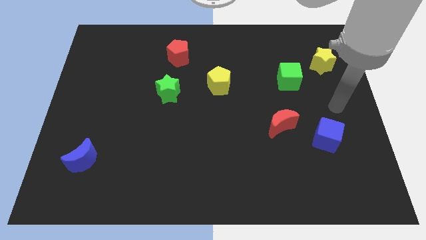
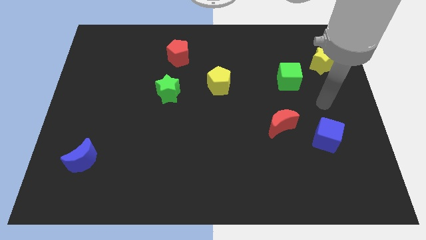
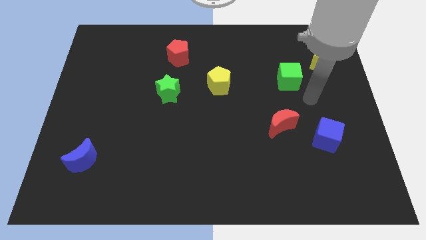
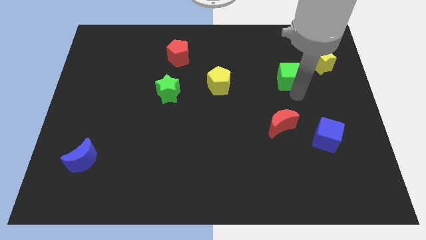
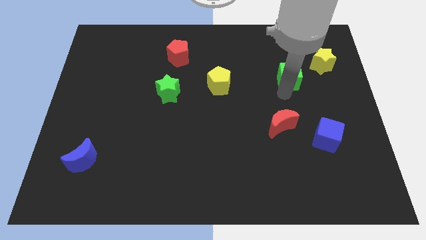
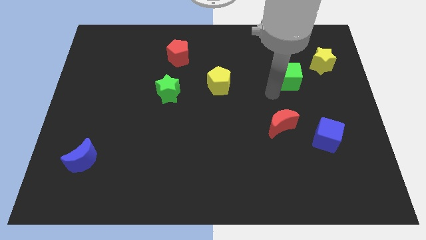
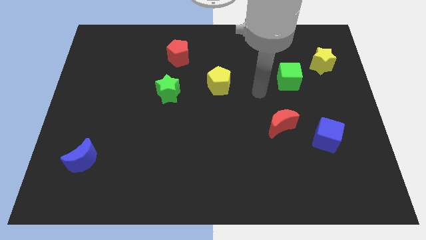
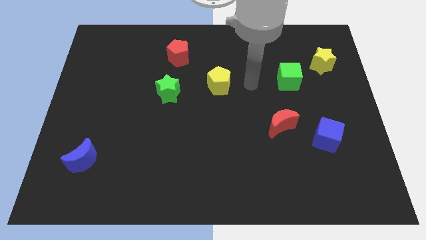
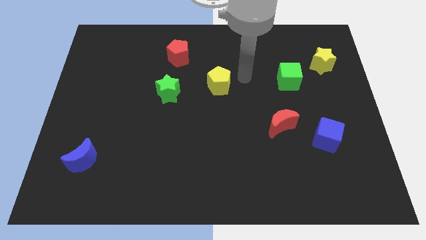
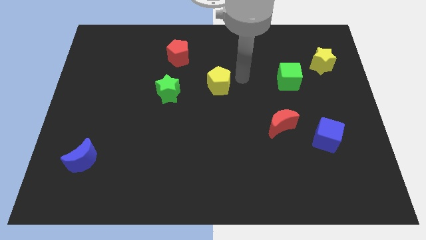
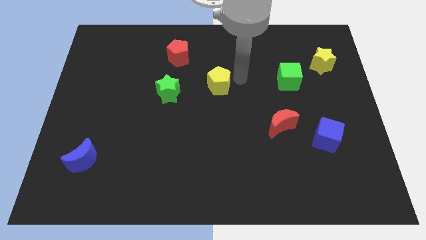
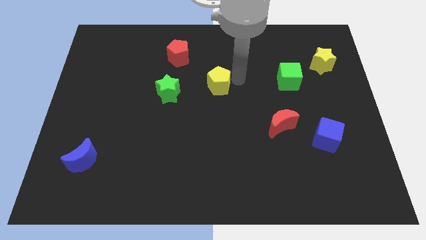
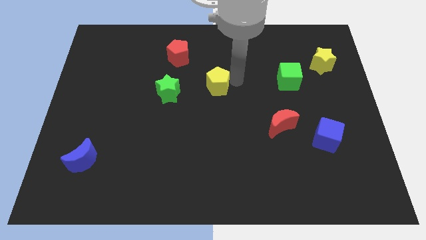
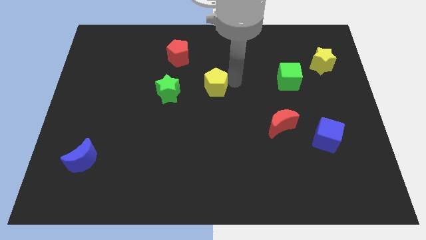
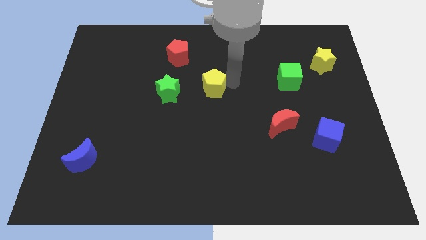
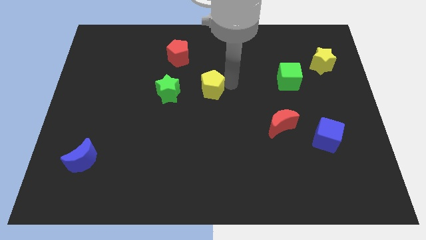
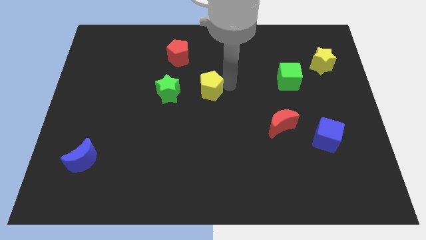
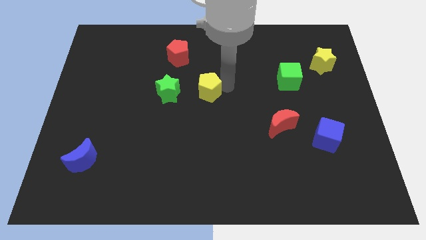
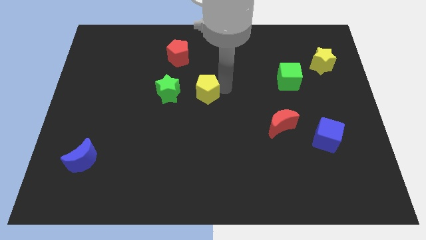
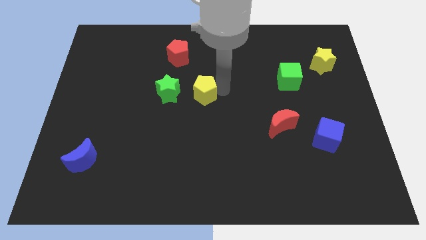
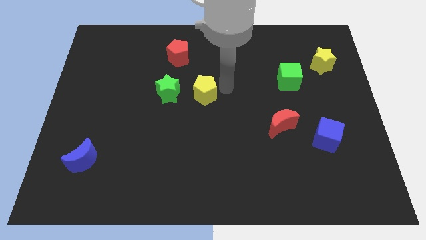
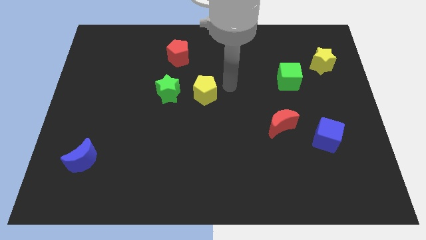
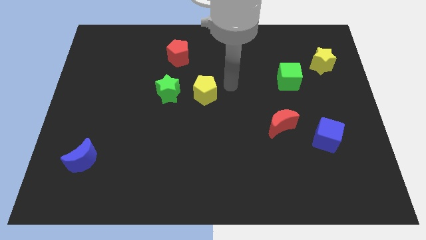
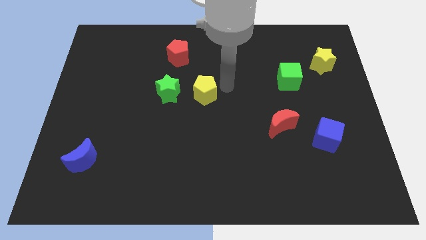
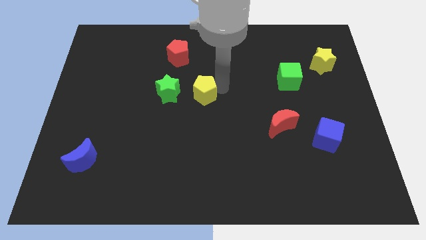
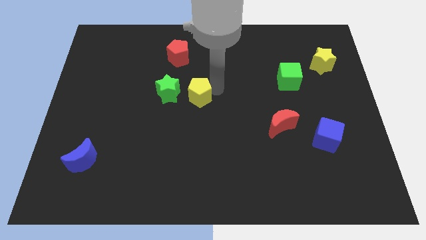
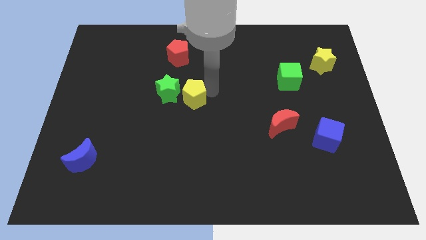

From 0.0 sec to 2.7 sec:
push the yellow pentagon a little downwards and left diagonally

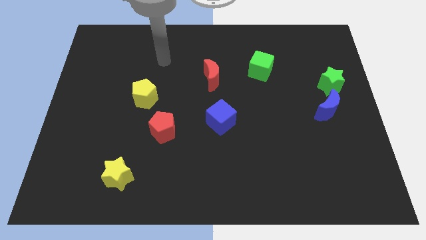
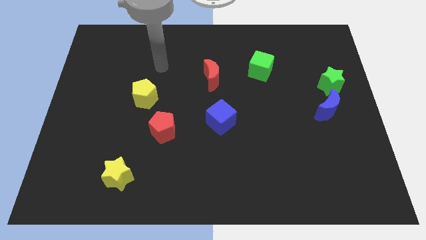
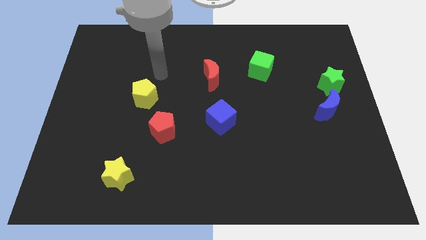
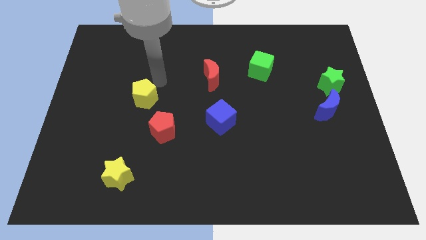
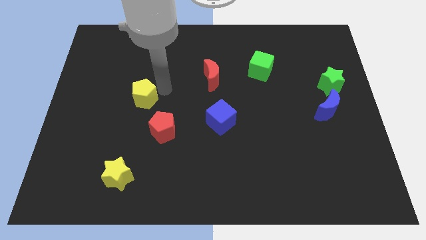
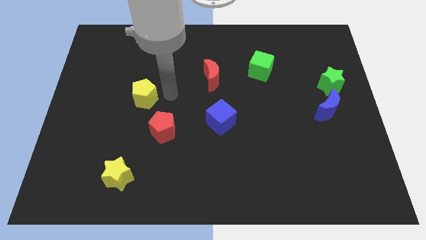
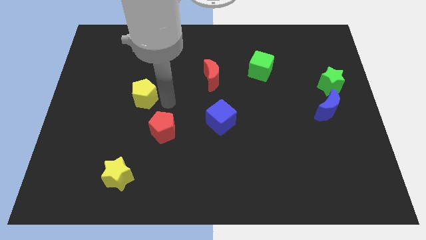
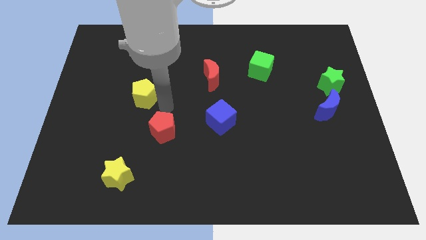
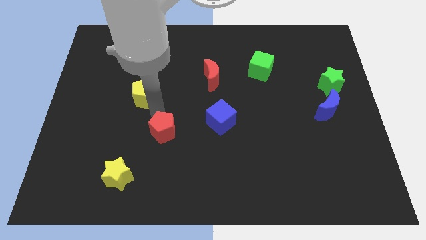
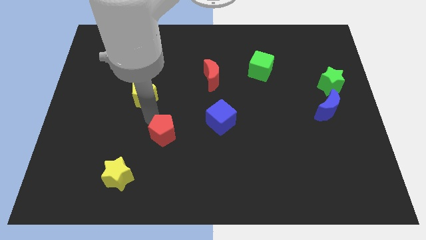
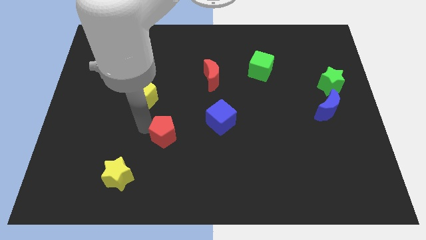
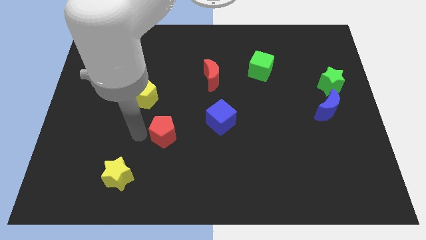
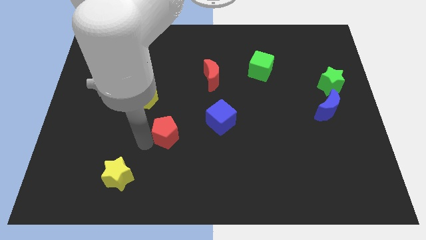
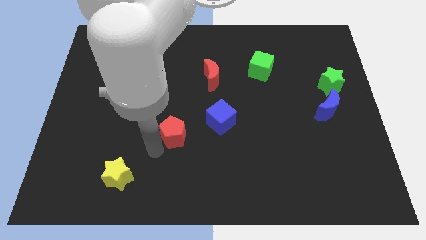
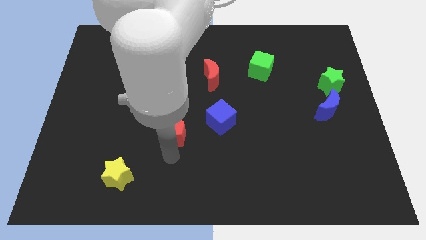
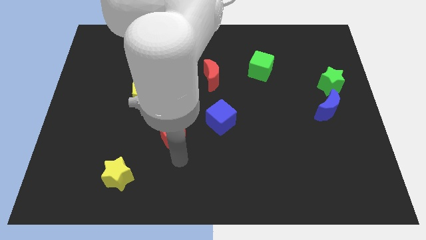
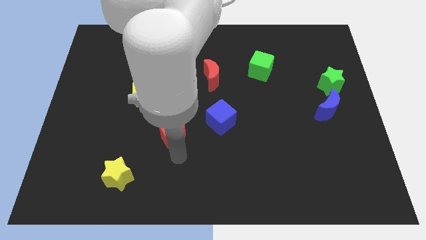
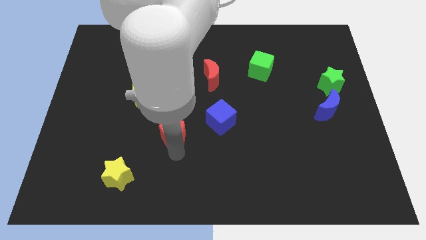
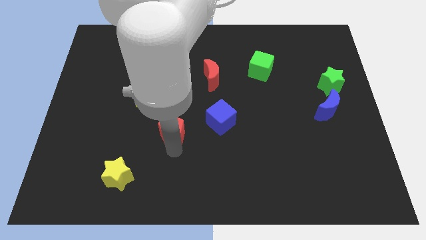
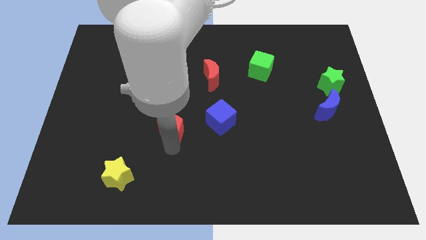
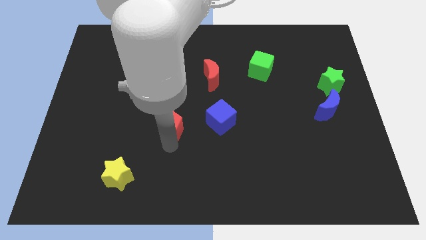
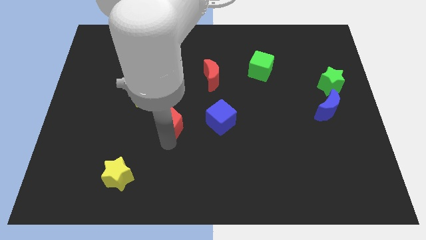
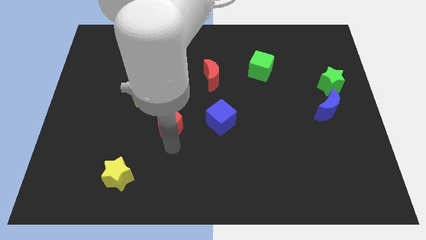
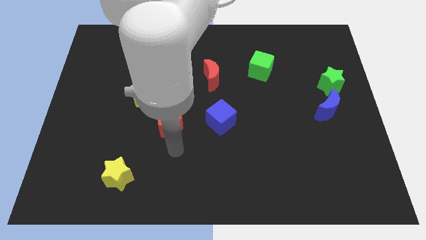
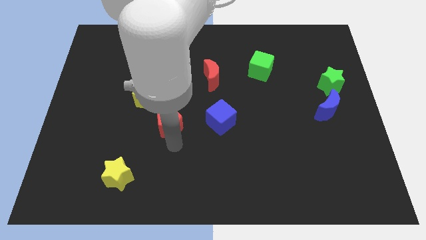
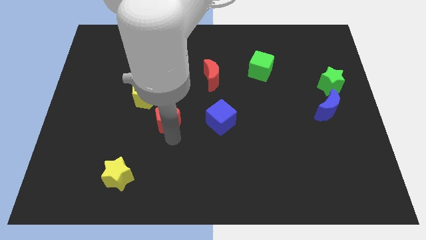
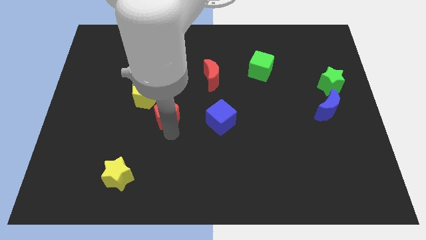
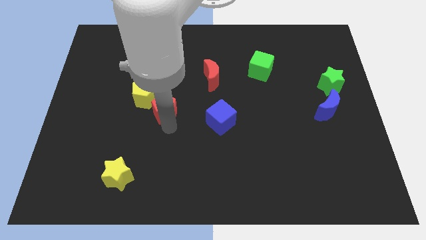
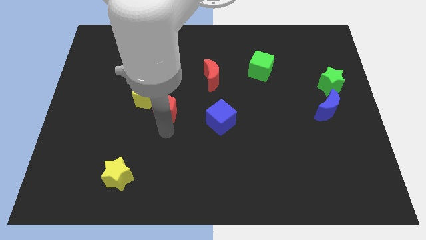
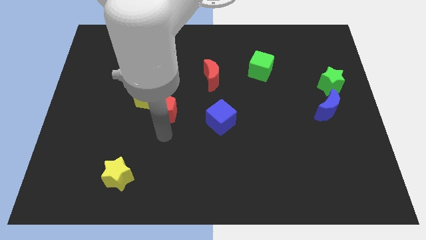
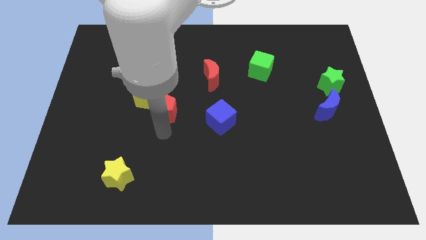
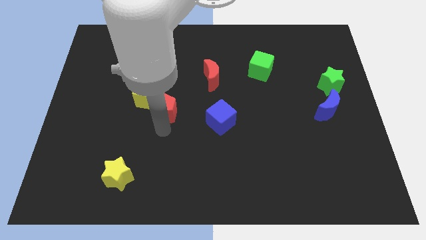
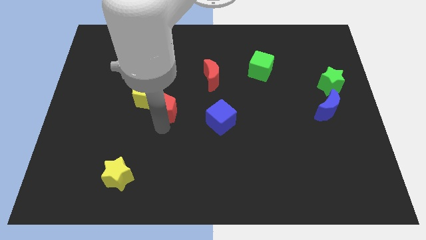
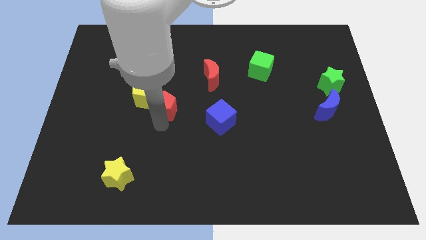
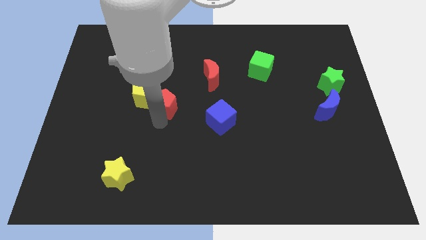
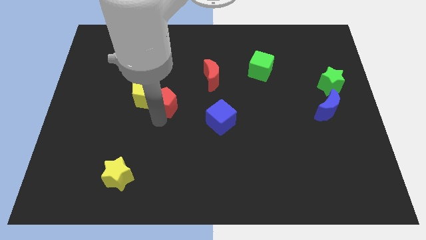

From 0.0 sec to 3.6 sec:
move the red pentagon somewhat up

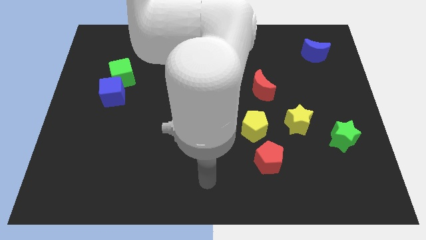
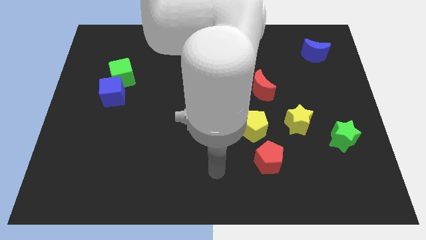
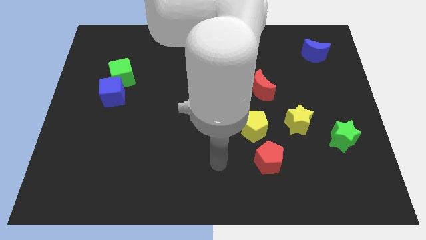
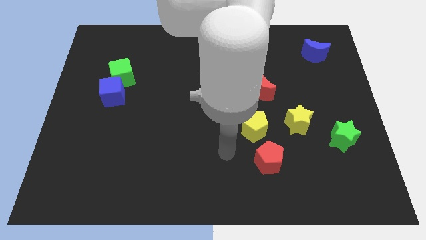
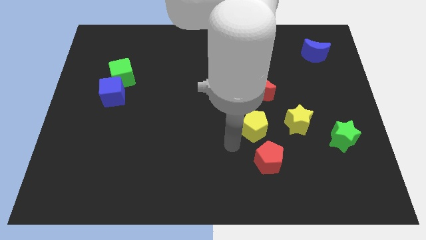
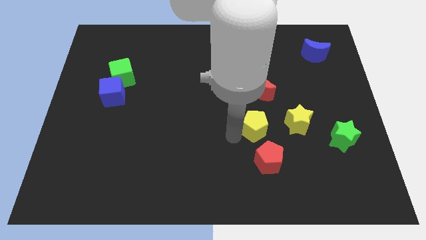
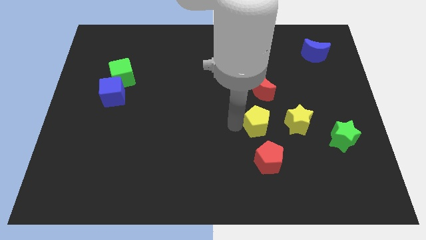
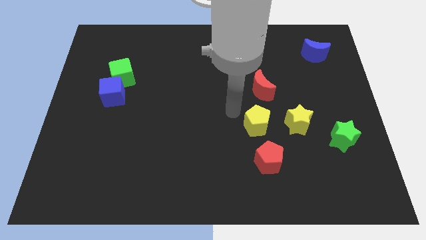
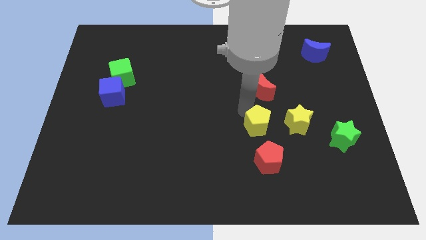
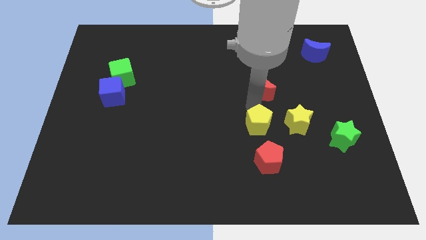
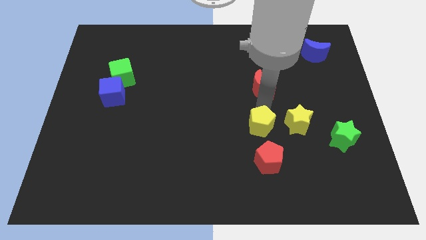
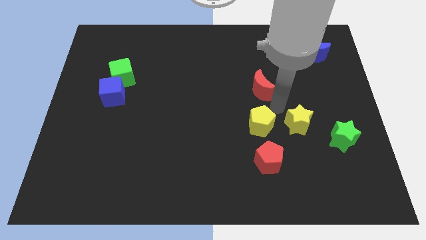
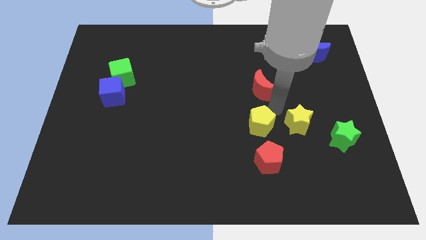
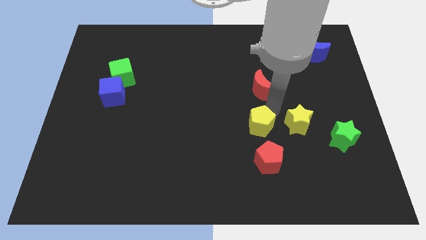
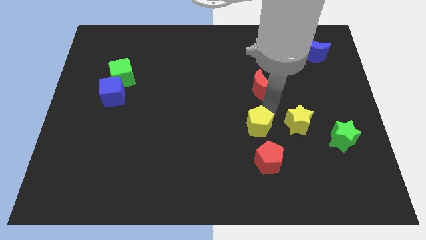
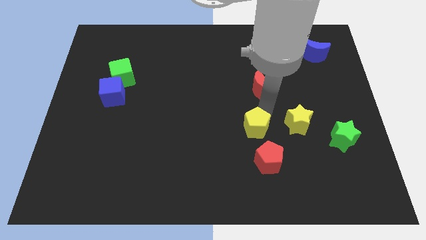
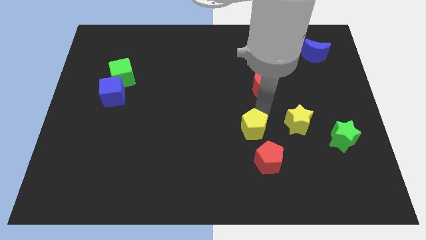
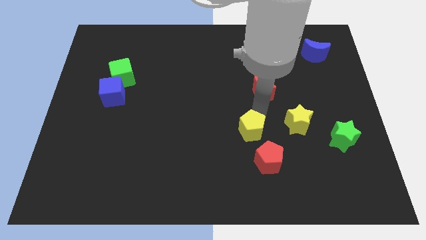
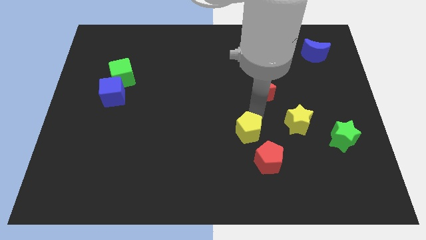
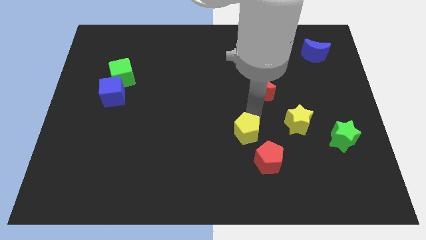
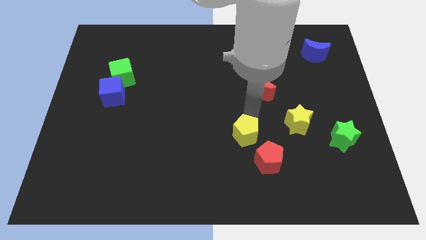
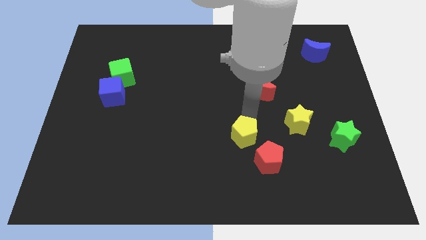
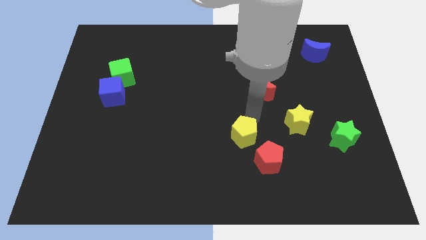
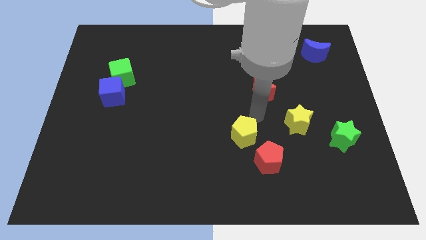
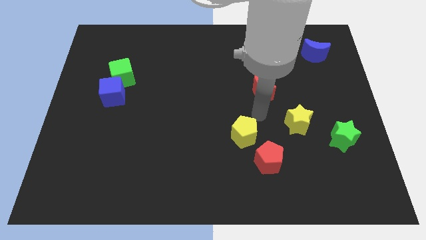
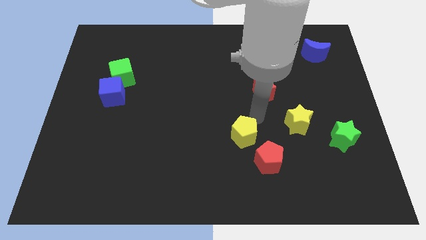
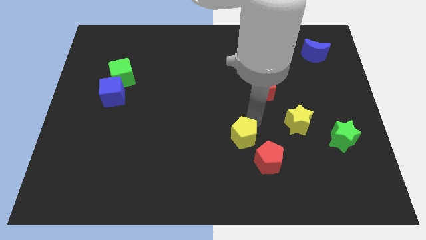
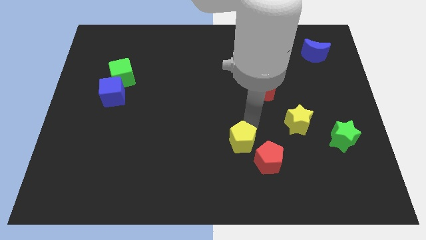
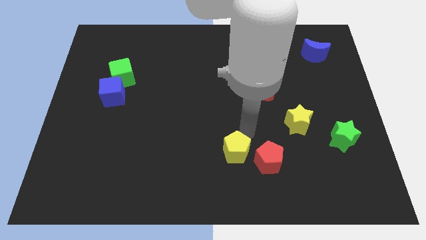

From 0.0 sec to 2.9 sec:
push the yellow pentagon downwards and to the left a bit
